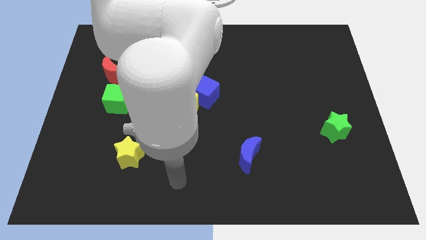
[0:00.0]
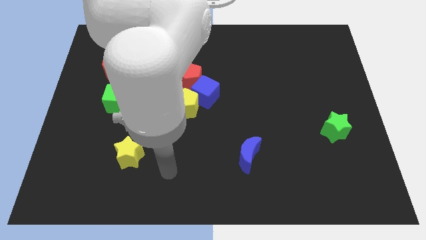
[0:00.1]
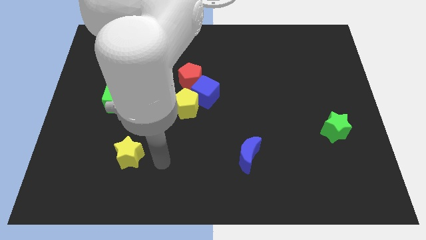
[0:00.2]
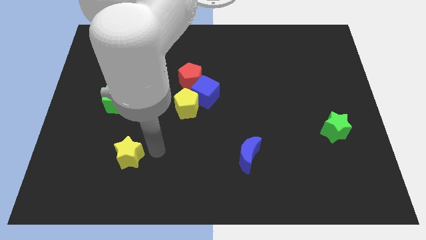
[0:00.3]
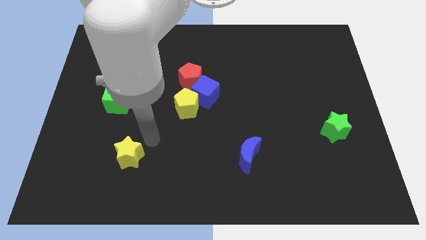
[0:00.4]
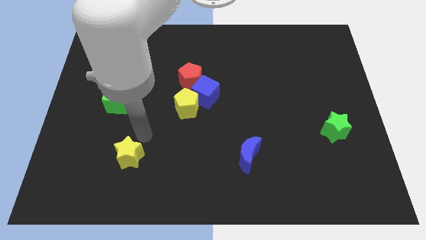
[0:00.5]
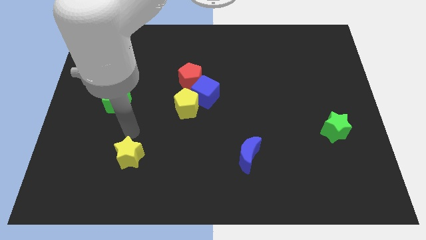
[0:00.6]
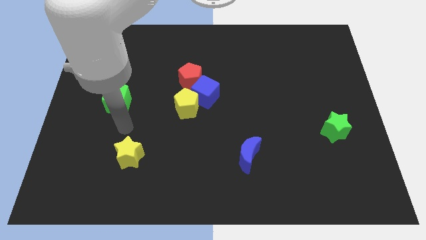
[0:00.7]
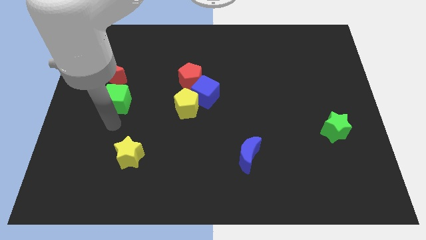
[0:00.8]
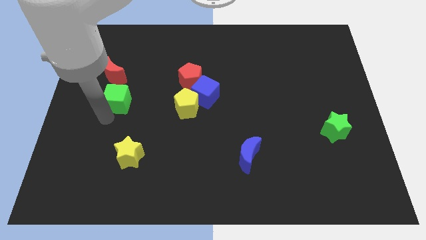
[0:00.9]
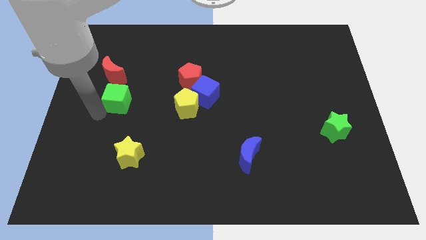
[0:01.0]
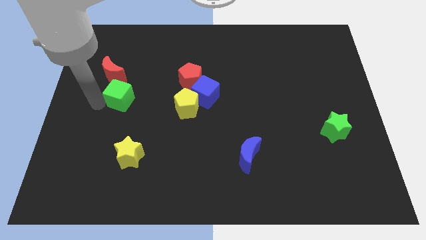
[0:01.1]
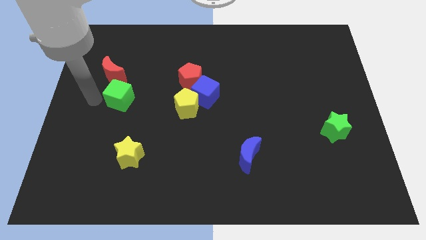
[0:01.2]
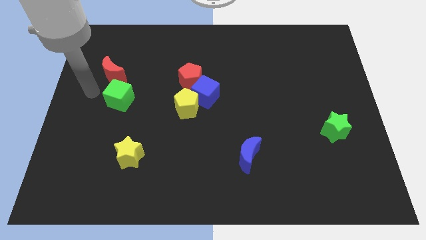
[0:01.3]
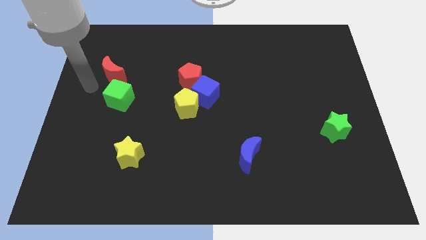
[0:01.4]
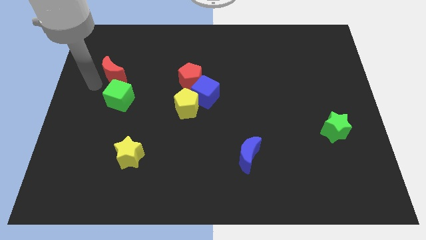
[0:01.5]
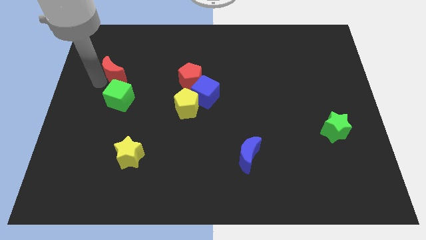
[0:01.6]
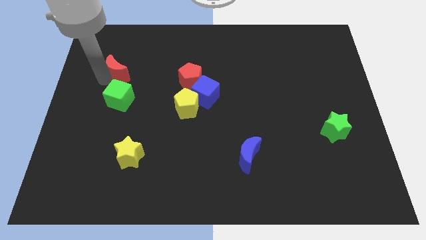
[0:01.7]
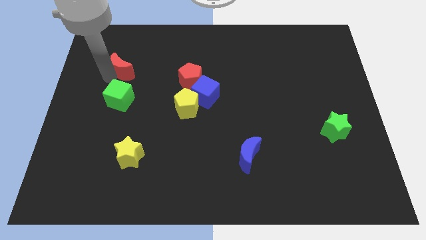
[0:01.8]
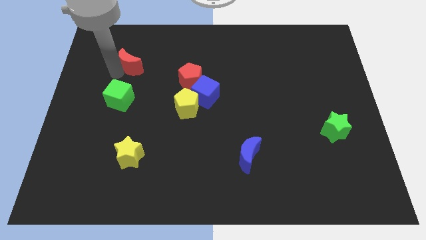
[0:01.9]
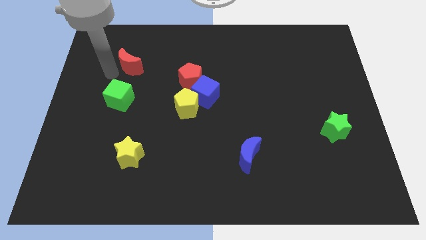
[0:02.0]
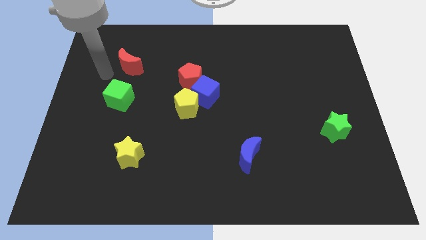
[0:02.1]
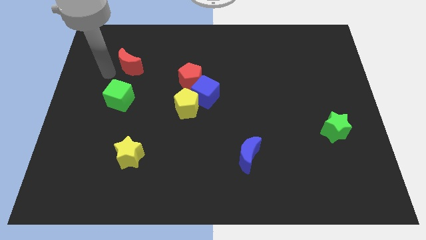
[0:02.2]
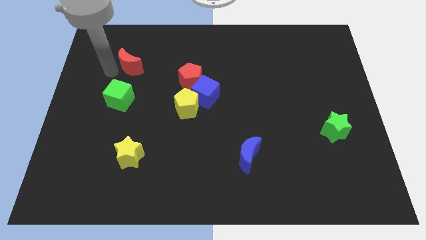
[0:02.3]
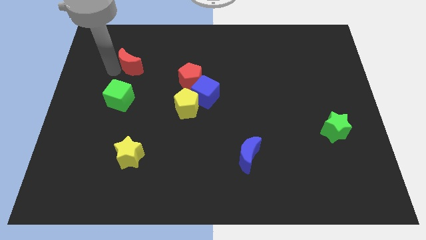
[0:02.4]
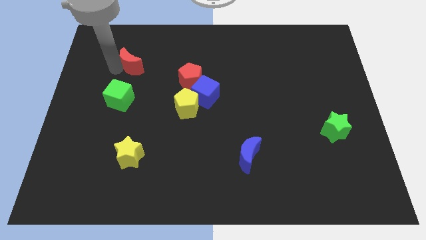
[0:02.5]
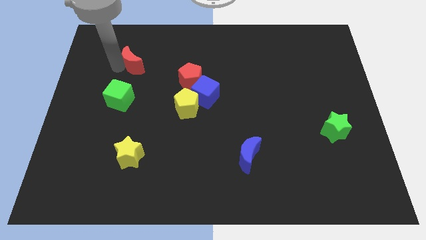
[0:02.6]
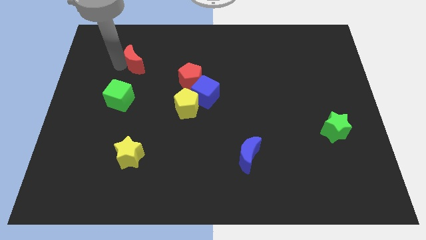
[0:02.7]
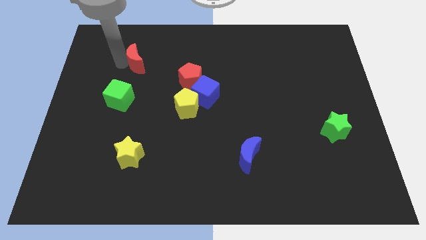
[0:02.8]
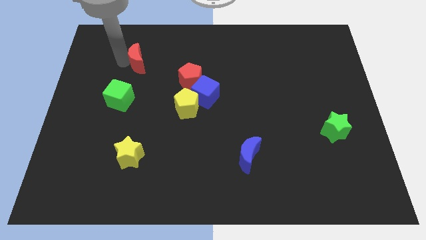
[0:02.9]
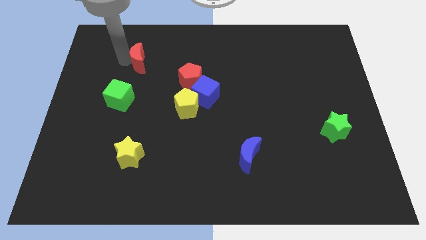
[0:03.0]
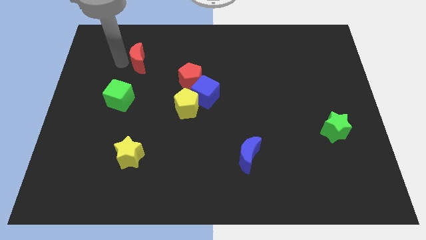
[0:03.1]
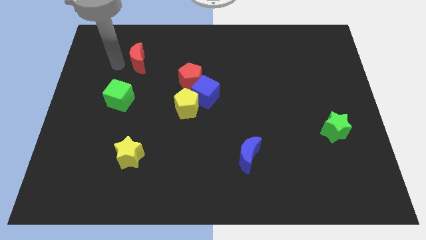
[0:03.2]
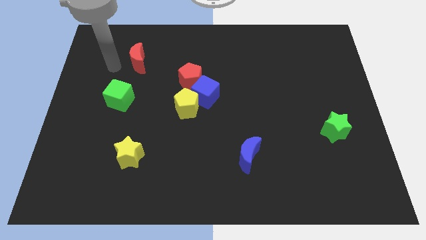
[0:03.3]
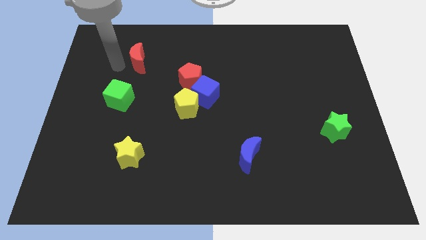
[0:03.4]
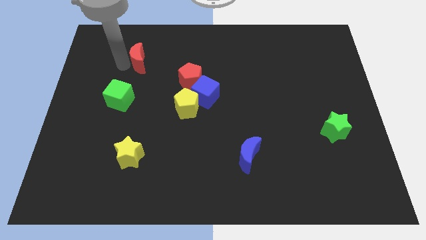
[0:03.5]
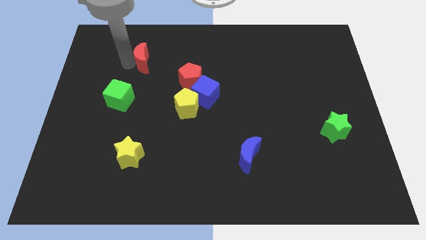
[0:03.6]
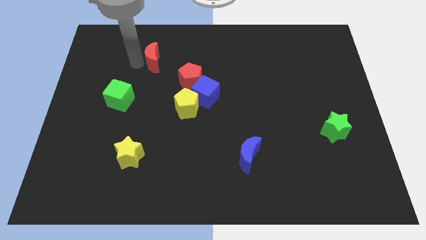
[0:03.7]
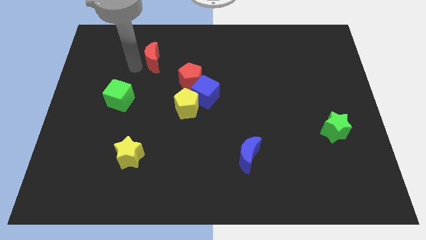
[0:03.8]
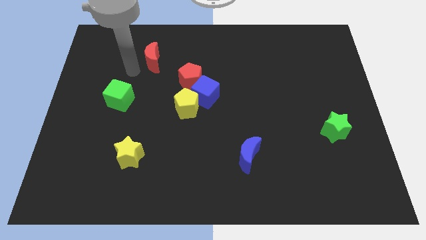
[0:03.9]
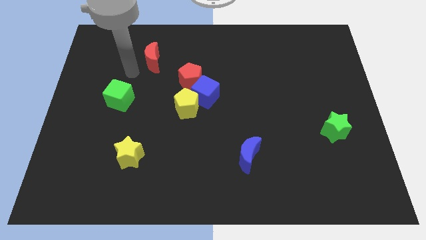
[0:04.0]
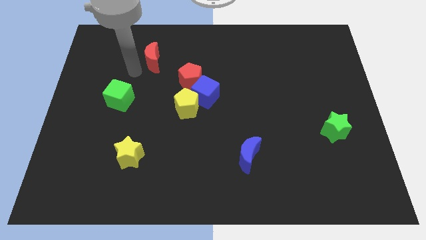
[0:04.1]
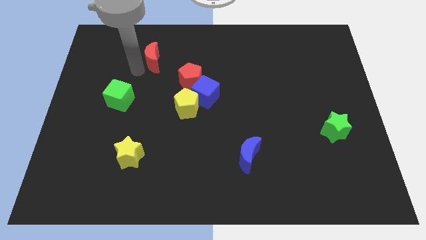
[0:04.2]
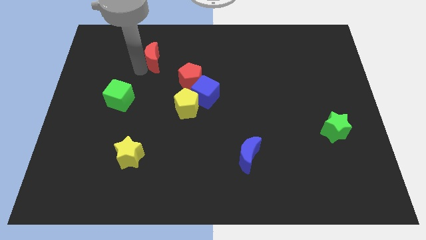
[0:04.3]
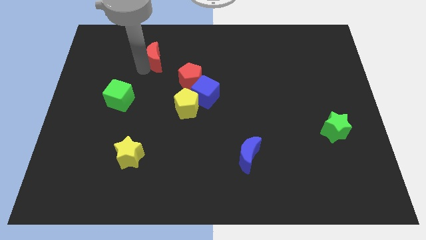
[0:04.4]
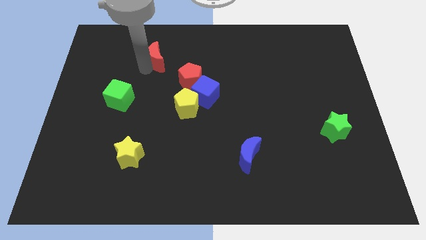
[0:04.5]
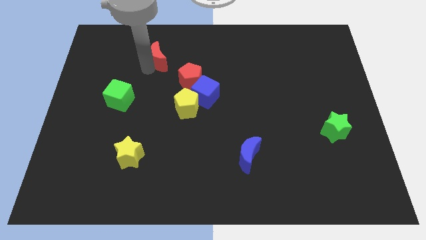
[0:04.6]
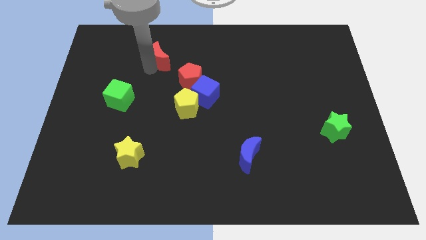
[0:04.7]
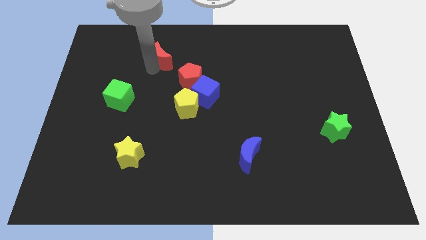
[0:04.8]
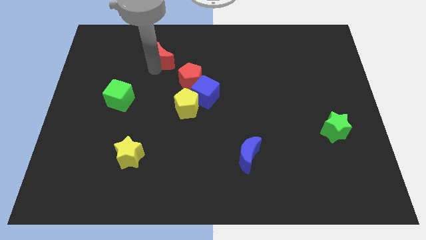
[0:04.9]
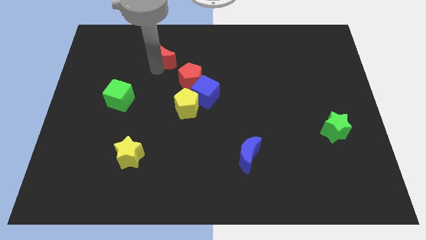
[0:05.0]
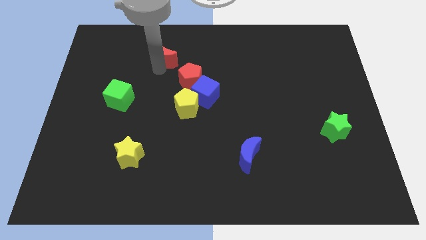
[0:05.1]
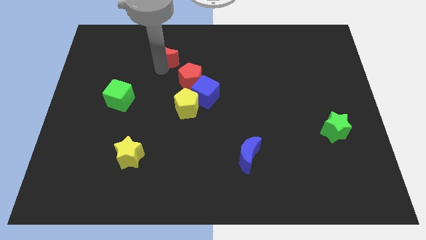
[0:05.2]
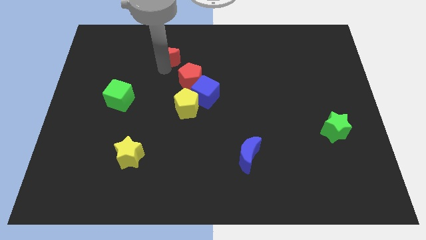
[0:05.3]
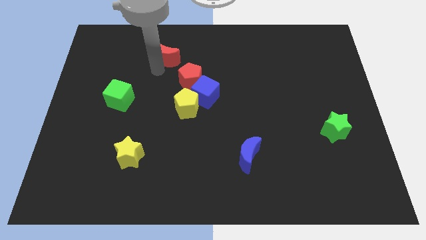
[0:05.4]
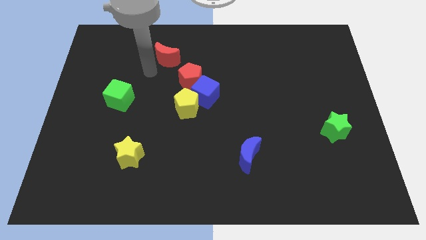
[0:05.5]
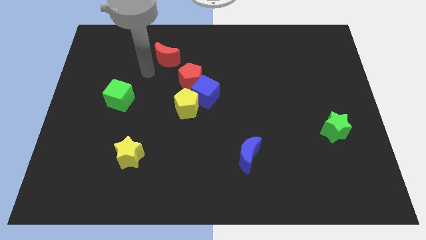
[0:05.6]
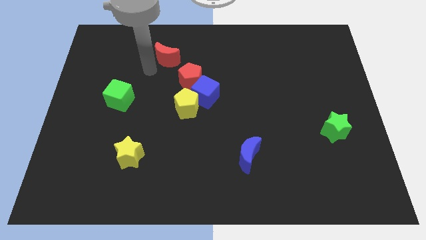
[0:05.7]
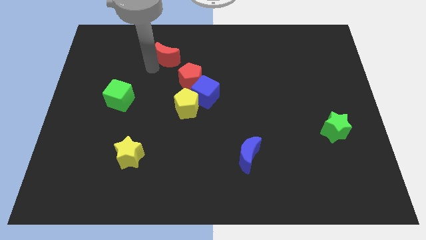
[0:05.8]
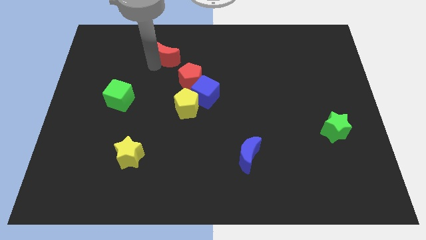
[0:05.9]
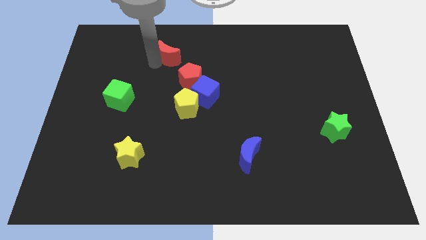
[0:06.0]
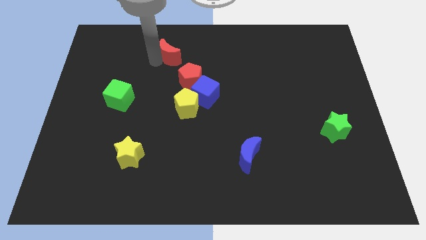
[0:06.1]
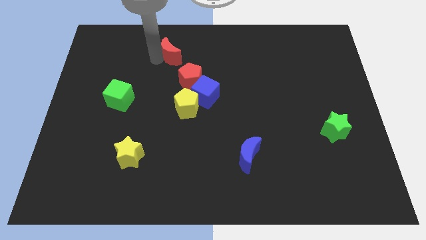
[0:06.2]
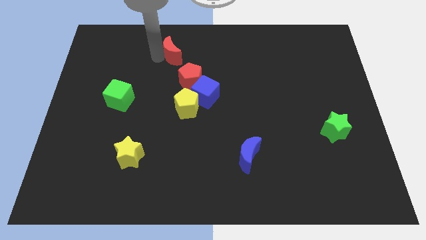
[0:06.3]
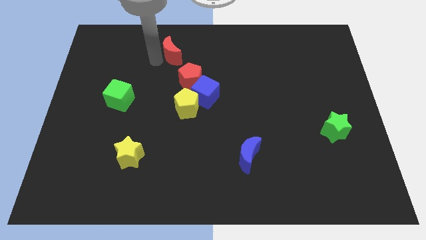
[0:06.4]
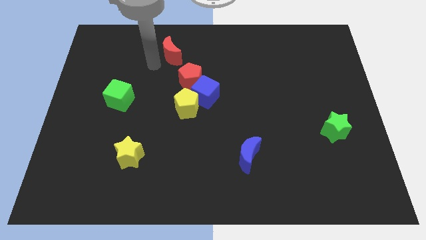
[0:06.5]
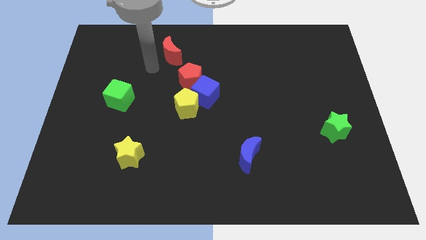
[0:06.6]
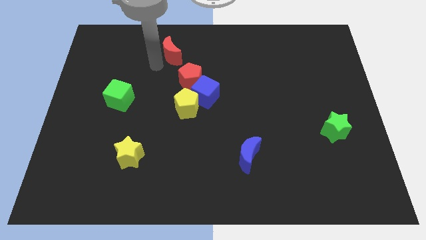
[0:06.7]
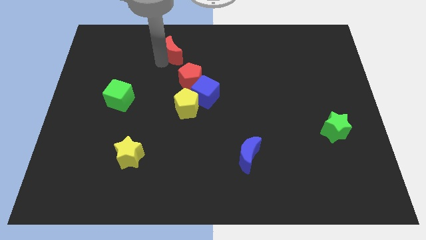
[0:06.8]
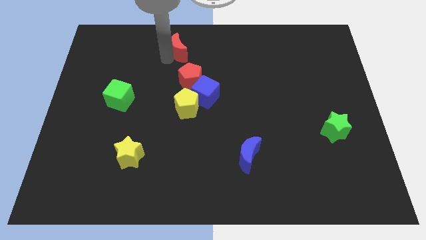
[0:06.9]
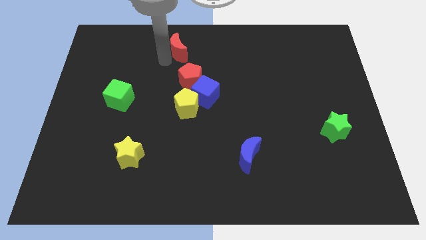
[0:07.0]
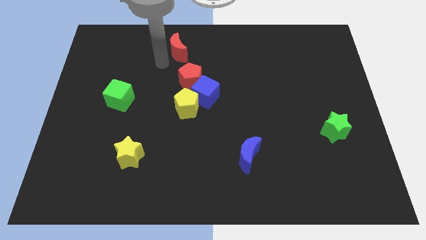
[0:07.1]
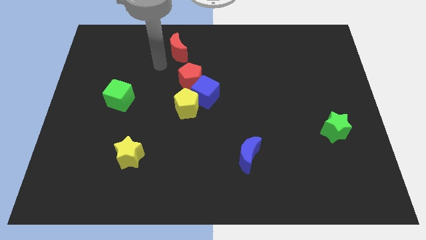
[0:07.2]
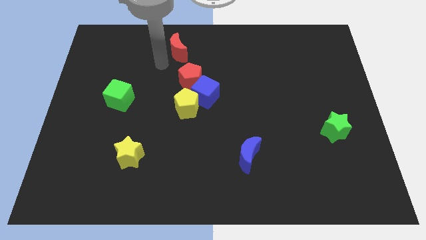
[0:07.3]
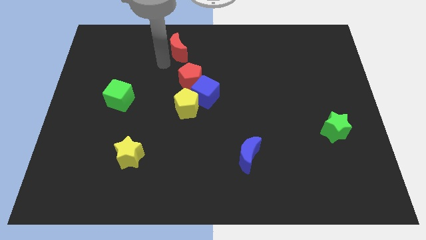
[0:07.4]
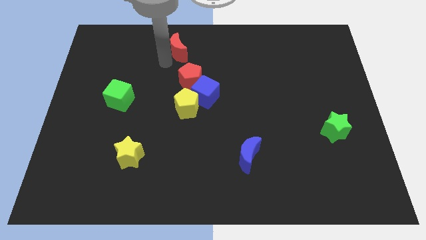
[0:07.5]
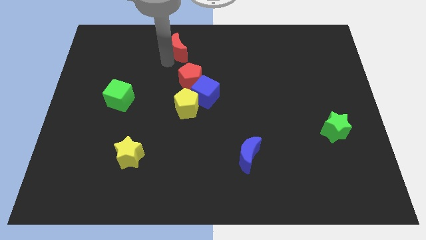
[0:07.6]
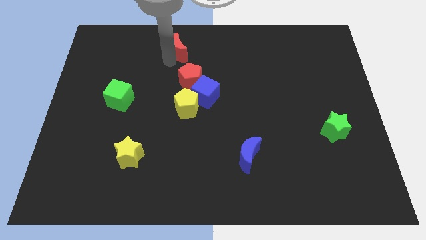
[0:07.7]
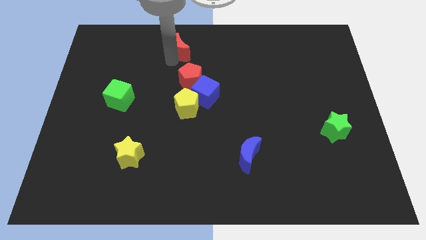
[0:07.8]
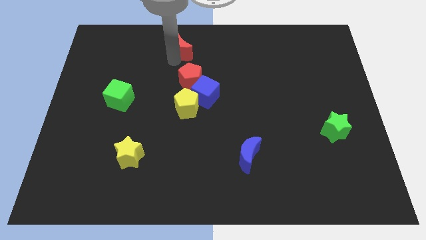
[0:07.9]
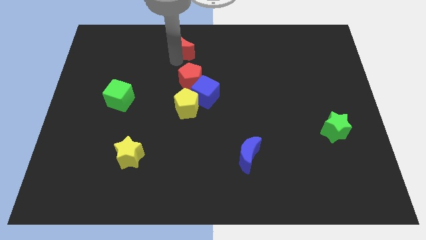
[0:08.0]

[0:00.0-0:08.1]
slide the red moon to the top
